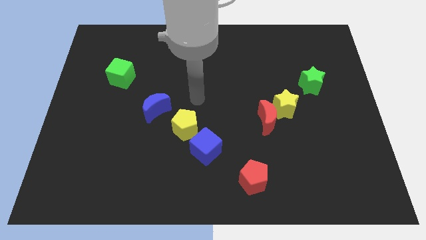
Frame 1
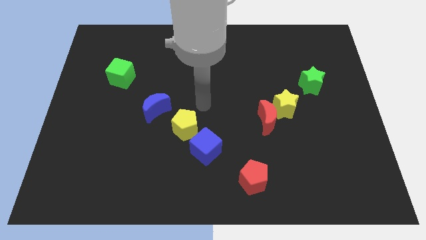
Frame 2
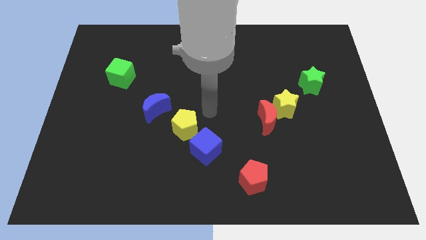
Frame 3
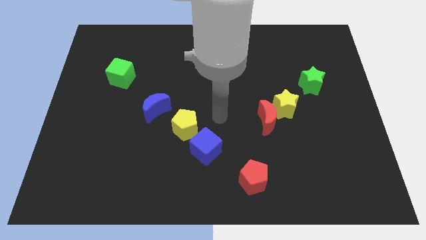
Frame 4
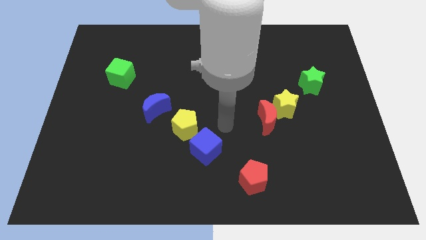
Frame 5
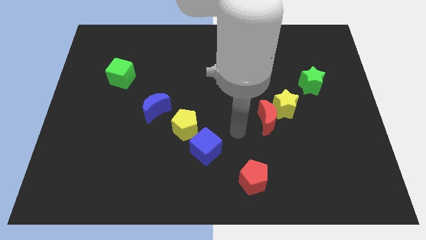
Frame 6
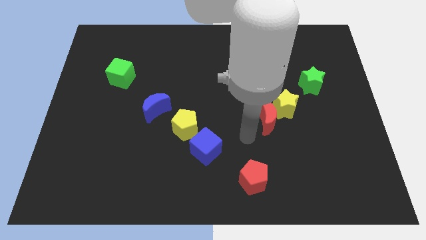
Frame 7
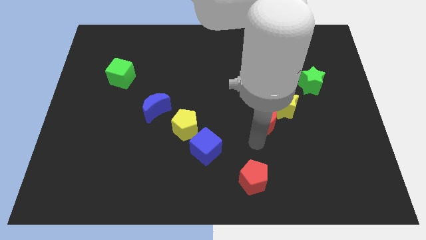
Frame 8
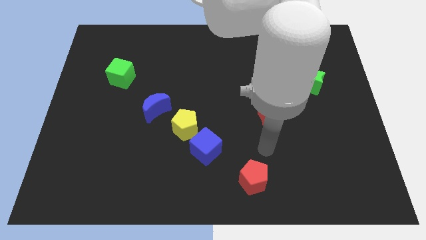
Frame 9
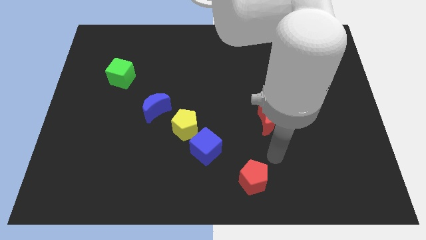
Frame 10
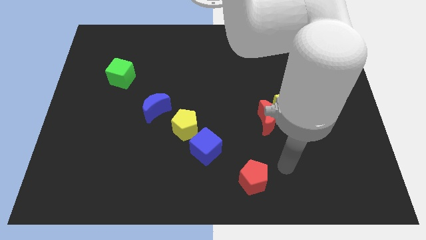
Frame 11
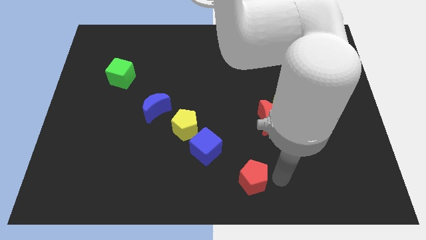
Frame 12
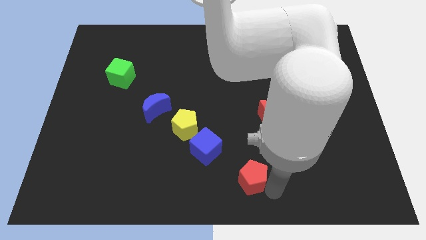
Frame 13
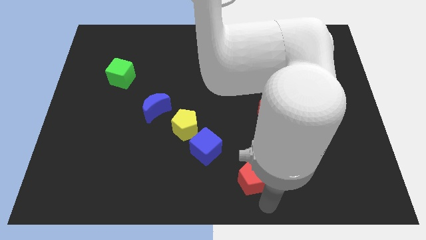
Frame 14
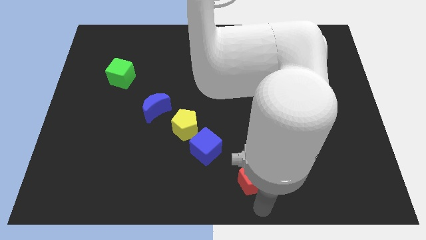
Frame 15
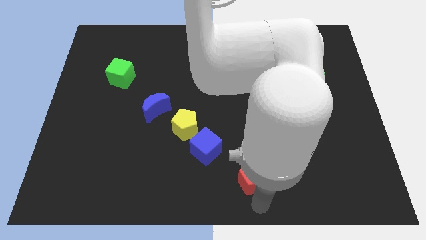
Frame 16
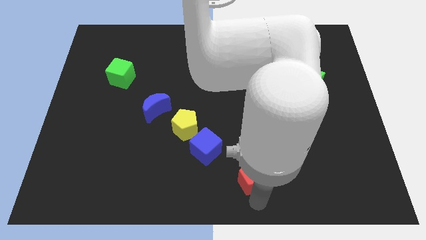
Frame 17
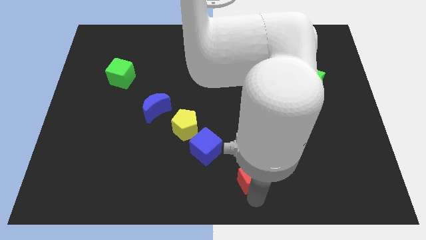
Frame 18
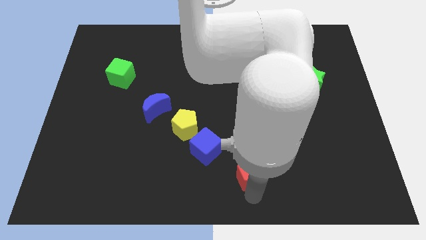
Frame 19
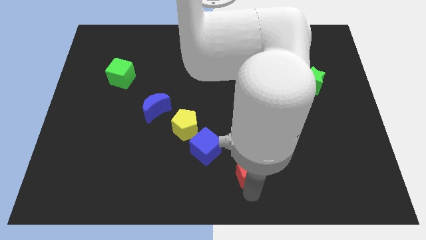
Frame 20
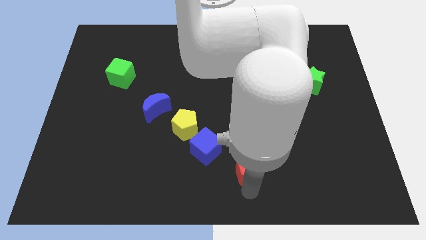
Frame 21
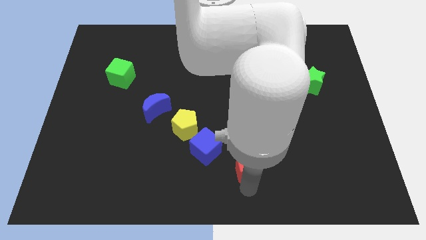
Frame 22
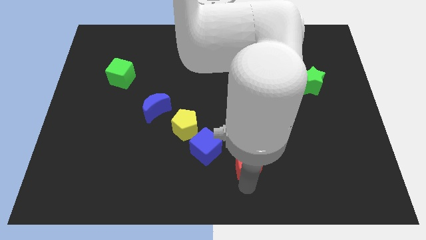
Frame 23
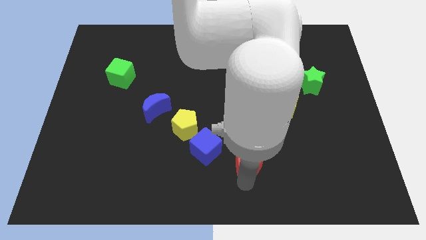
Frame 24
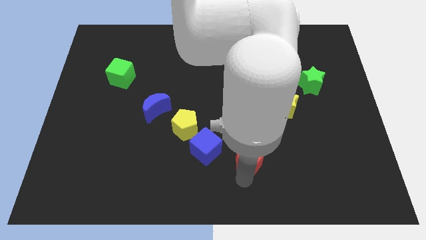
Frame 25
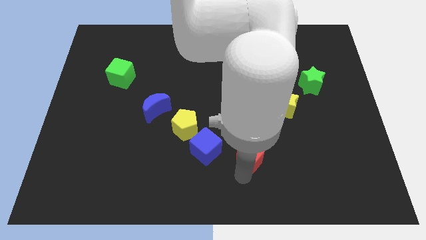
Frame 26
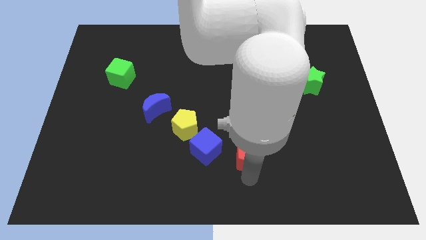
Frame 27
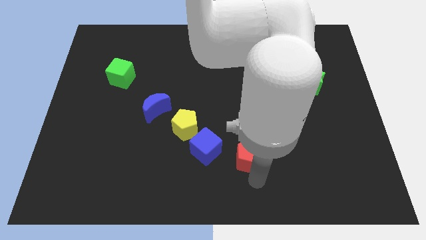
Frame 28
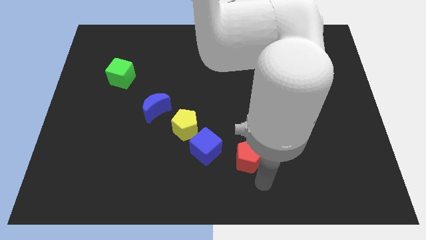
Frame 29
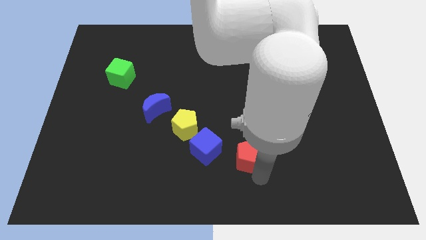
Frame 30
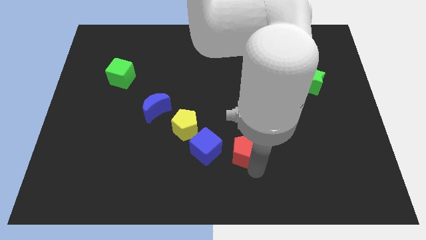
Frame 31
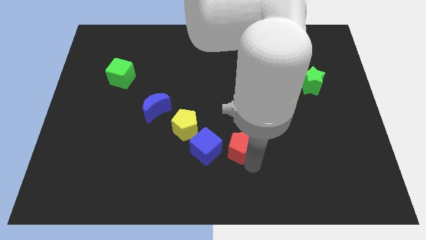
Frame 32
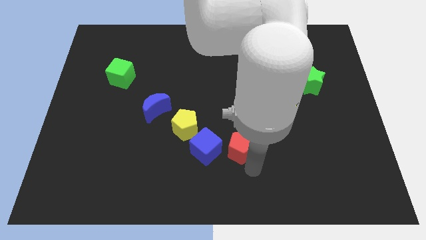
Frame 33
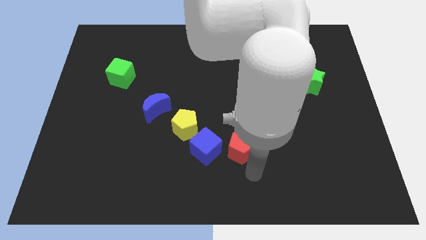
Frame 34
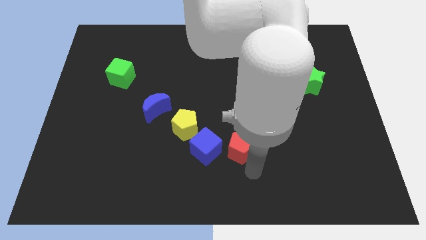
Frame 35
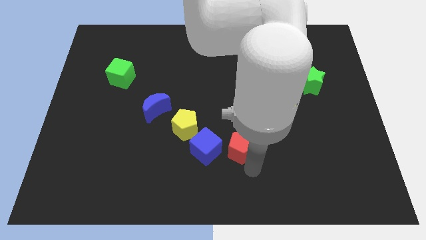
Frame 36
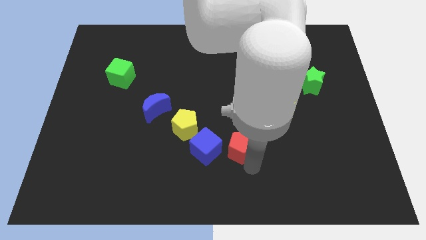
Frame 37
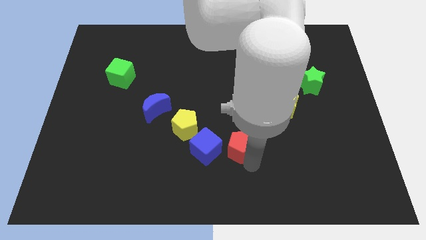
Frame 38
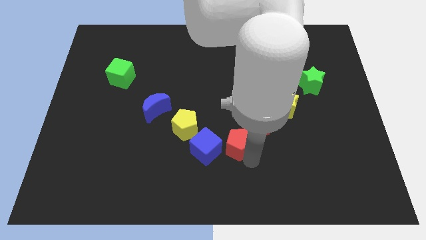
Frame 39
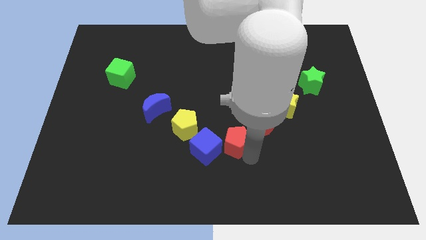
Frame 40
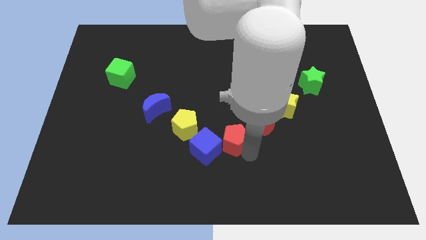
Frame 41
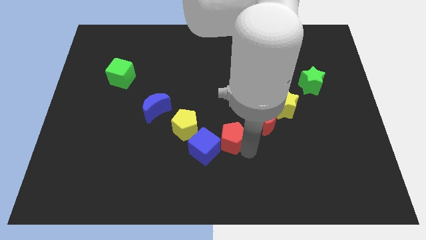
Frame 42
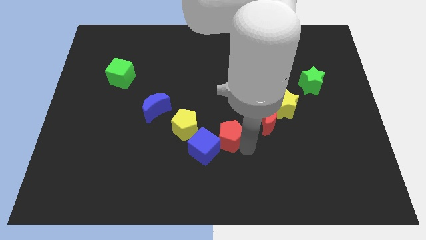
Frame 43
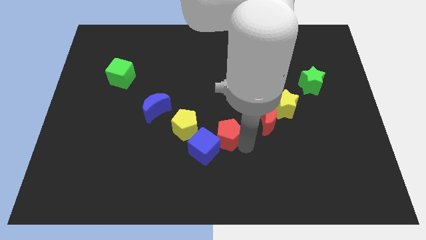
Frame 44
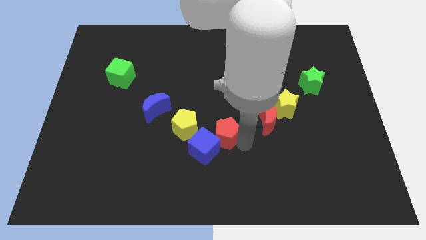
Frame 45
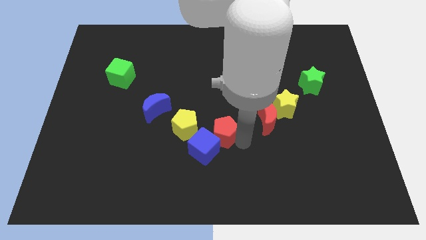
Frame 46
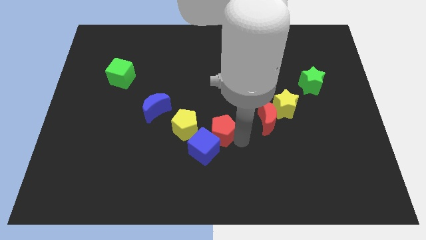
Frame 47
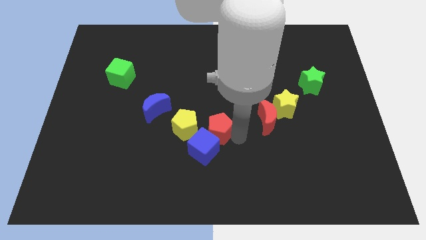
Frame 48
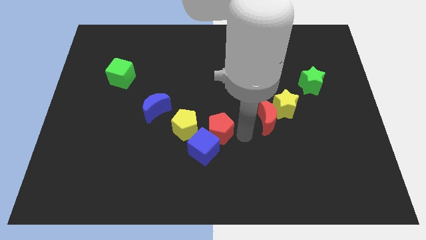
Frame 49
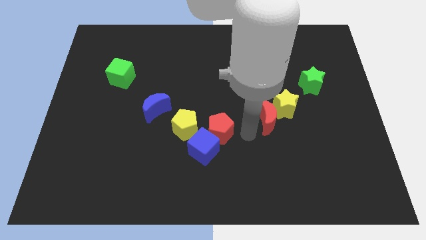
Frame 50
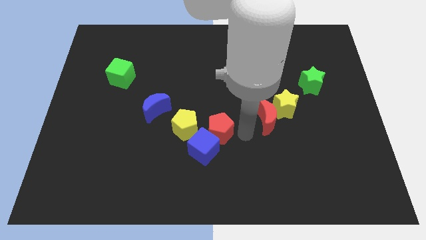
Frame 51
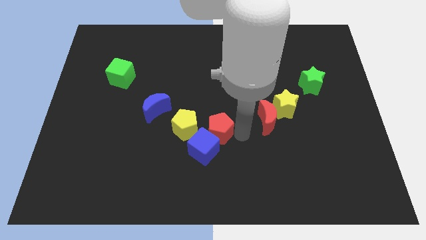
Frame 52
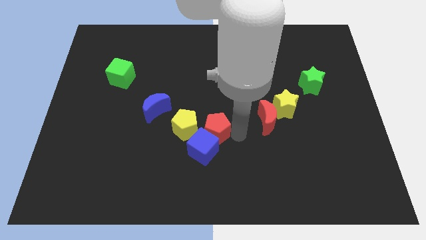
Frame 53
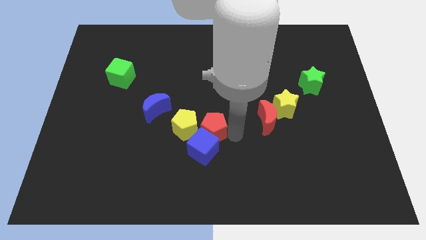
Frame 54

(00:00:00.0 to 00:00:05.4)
slide the red pentagon towards the yellow pentagon

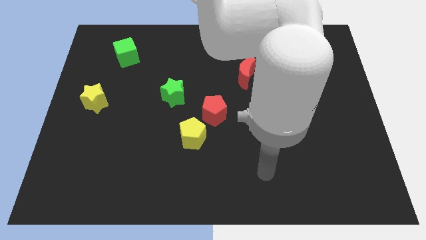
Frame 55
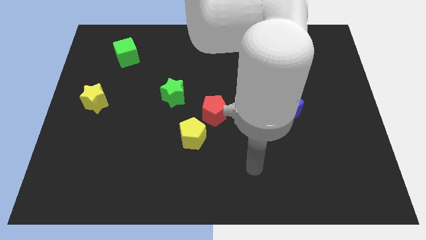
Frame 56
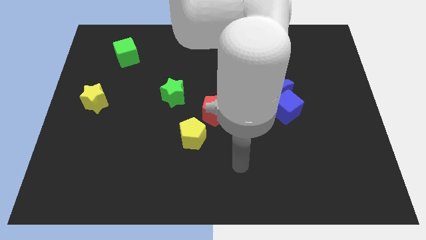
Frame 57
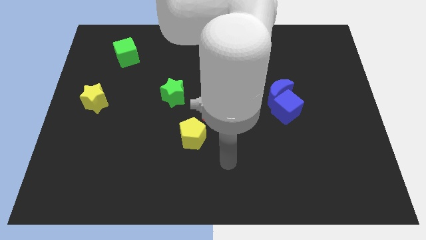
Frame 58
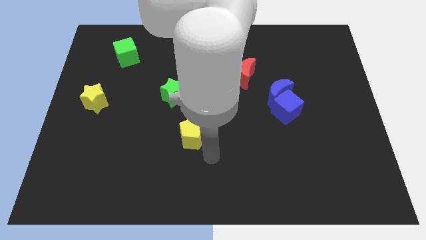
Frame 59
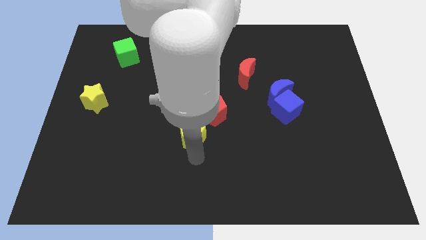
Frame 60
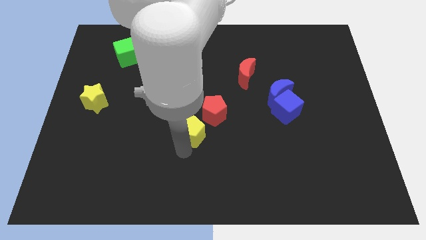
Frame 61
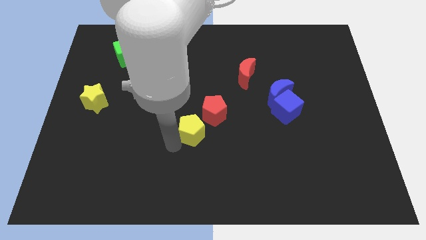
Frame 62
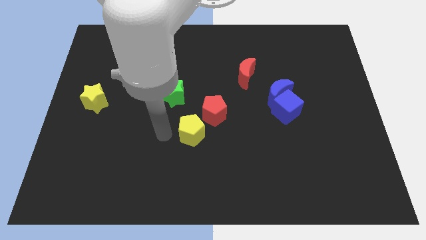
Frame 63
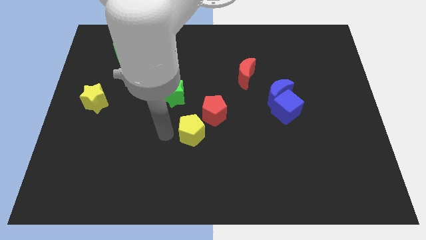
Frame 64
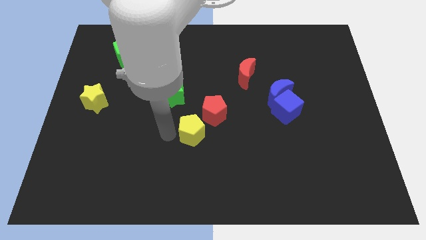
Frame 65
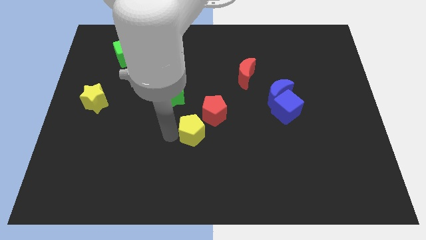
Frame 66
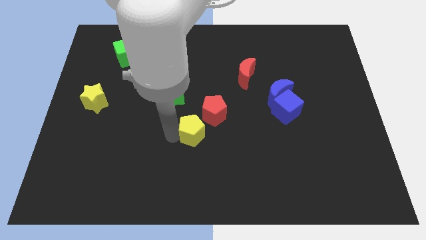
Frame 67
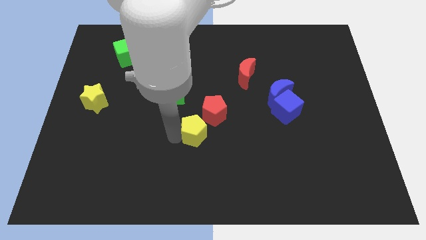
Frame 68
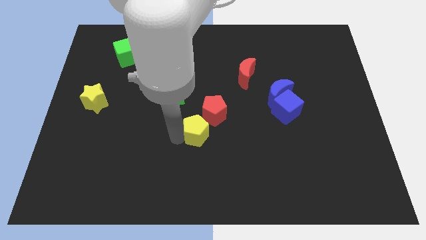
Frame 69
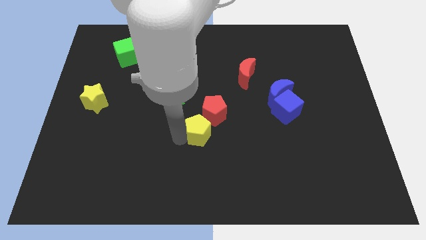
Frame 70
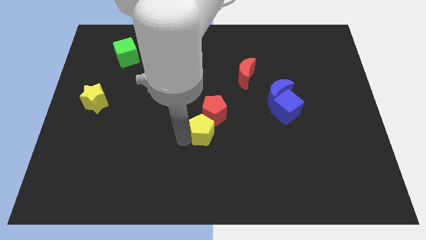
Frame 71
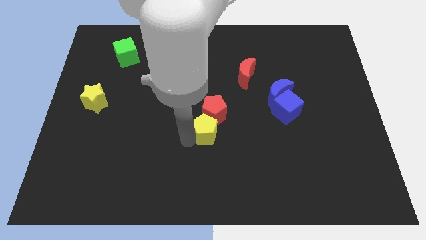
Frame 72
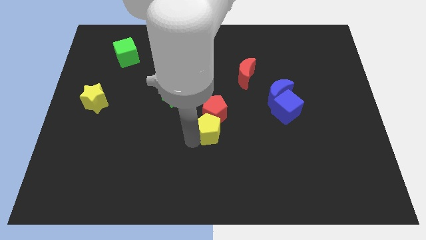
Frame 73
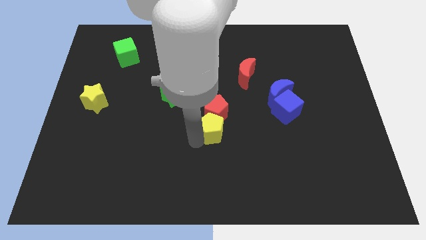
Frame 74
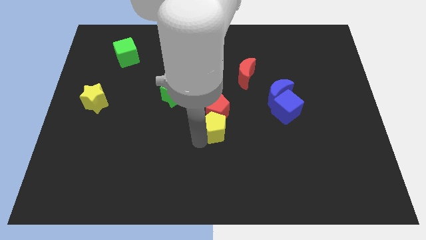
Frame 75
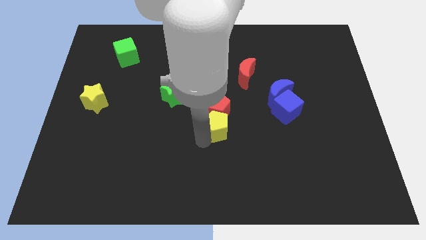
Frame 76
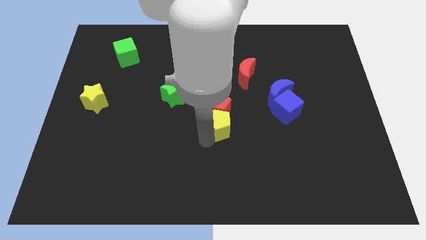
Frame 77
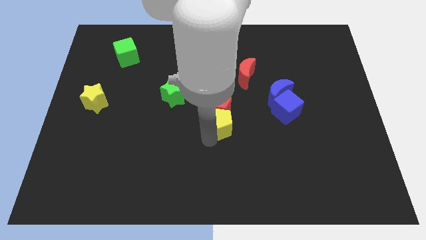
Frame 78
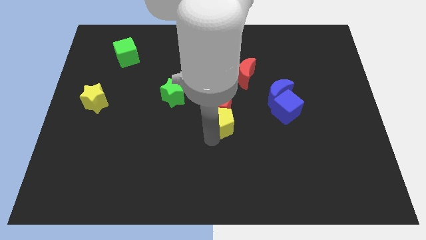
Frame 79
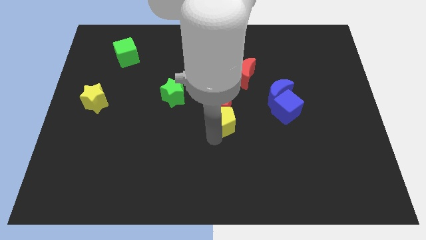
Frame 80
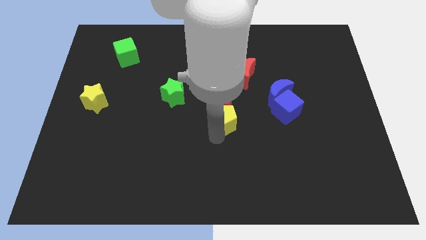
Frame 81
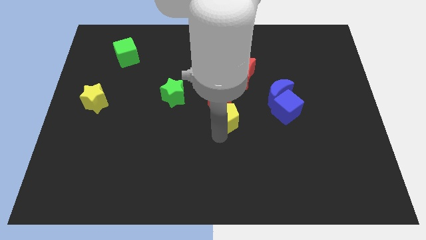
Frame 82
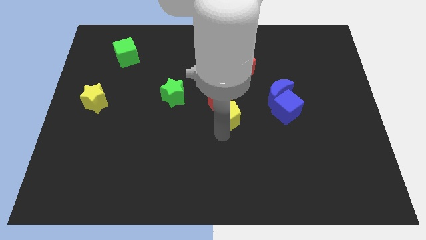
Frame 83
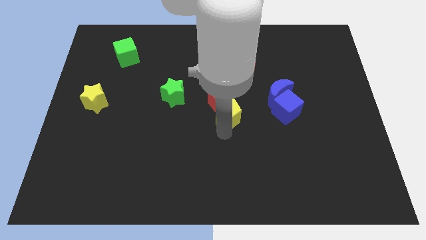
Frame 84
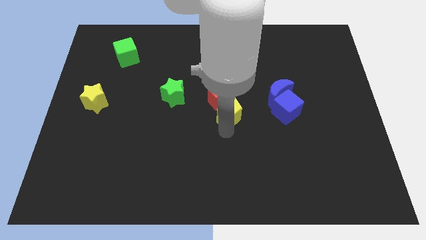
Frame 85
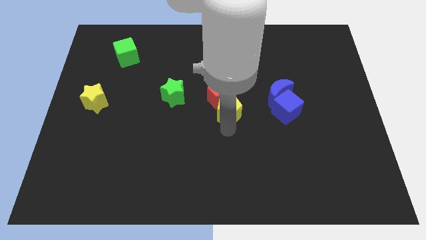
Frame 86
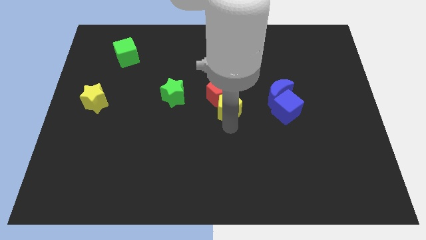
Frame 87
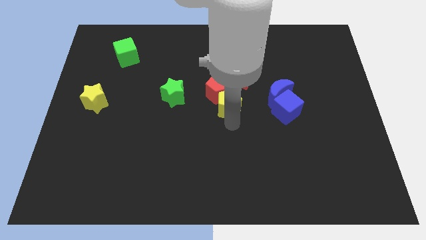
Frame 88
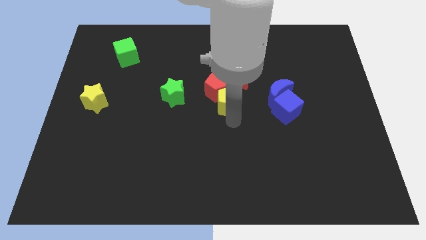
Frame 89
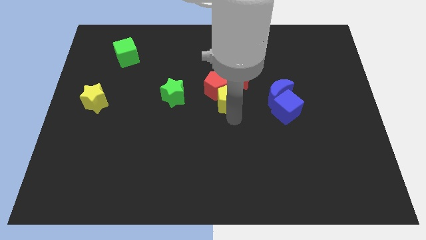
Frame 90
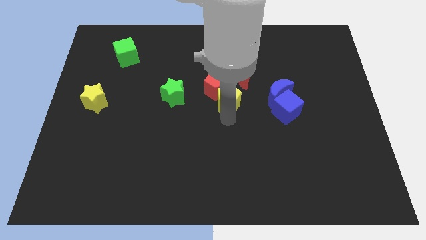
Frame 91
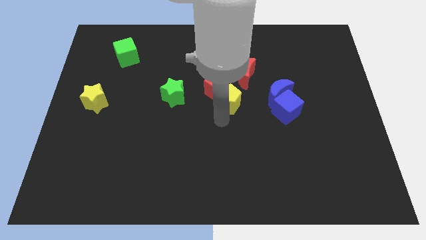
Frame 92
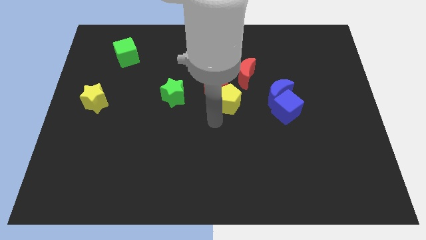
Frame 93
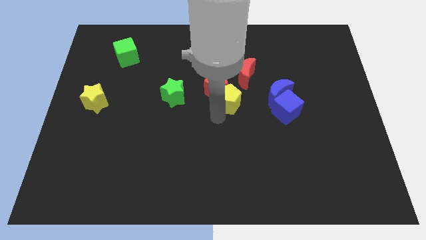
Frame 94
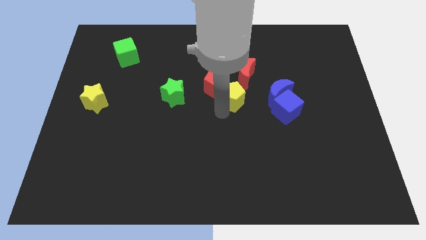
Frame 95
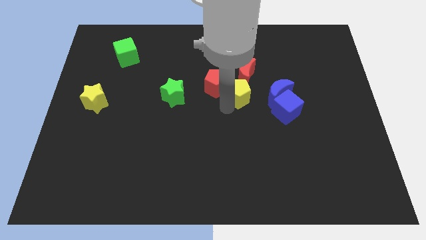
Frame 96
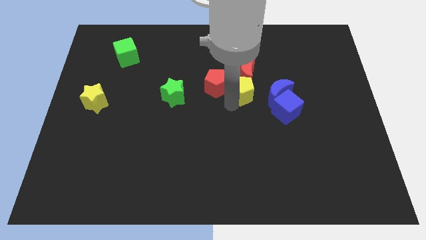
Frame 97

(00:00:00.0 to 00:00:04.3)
push the yellow pentagon to the red moon
